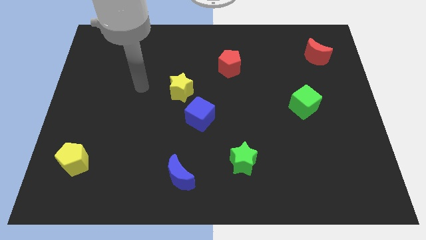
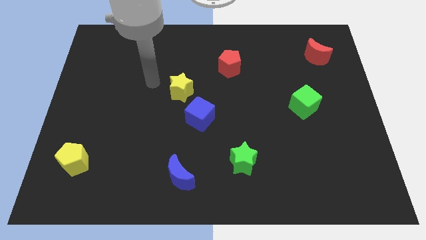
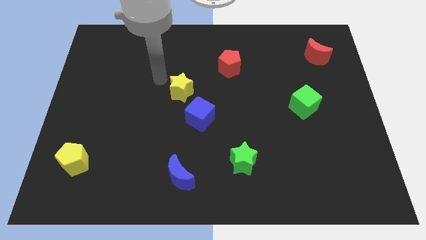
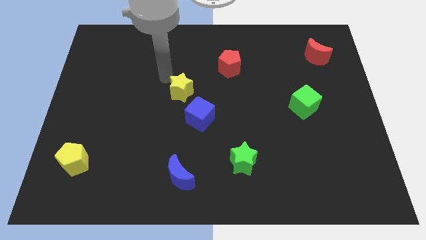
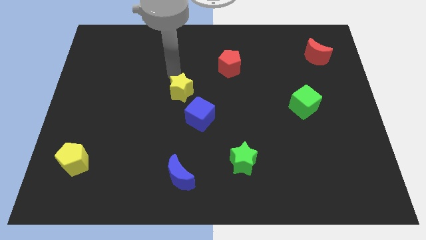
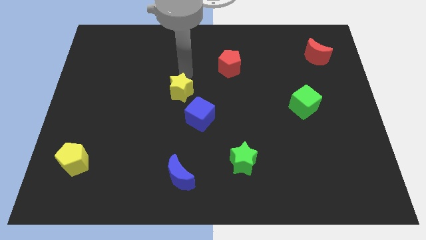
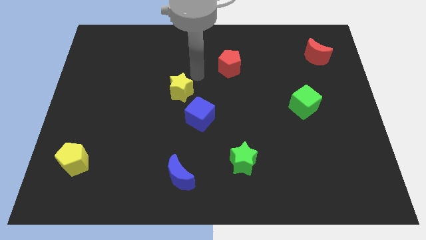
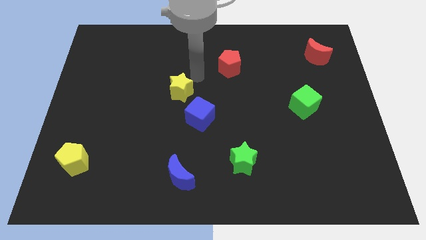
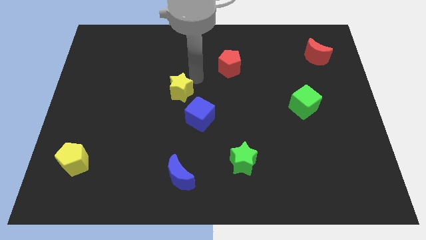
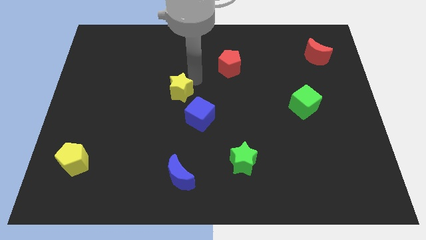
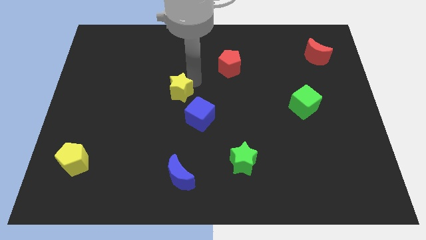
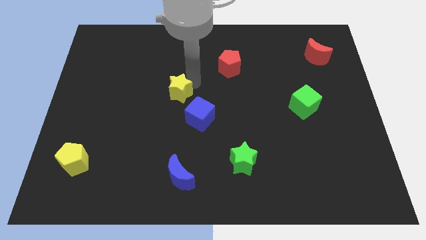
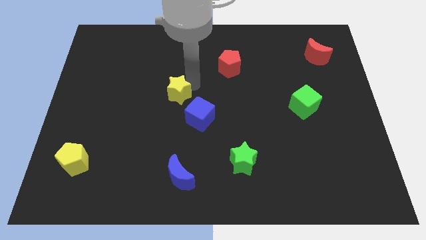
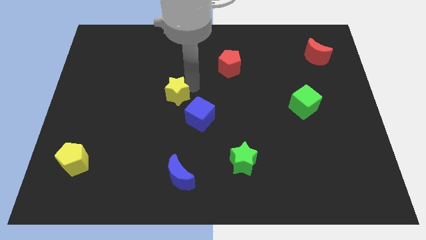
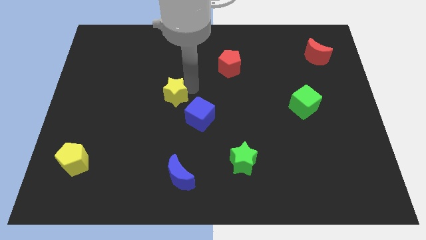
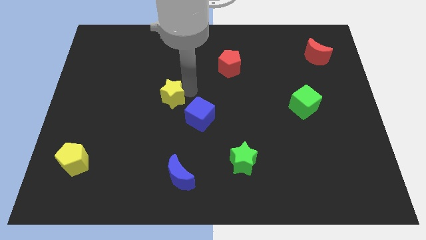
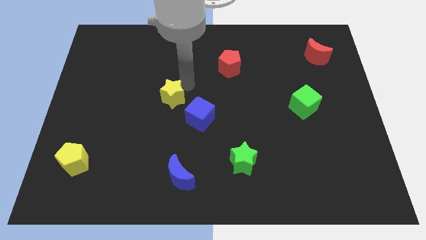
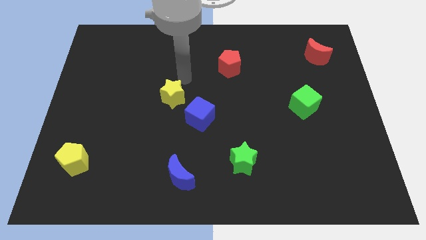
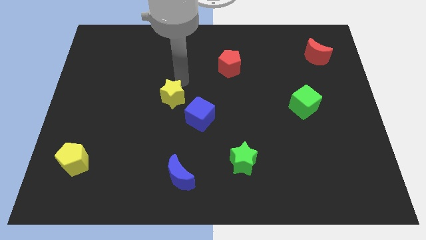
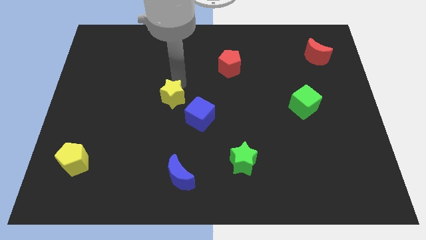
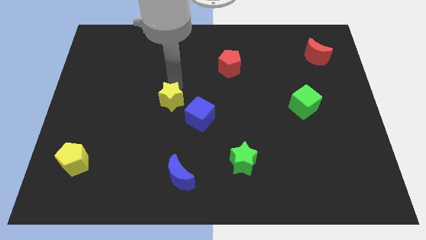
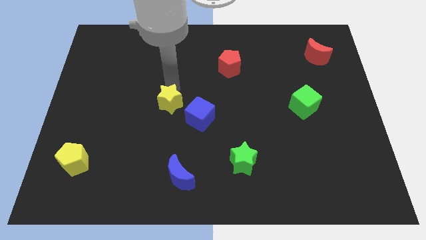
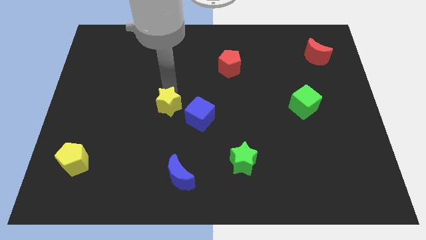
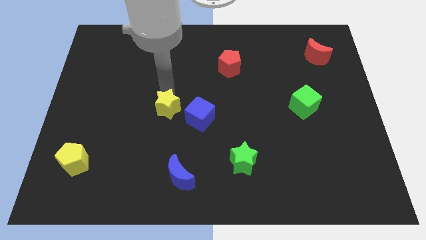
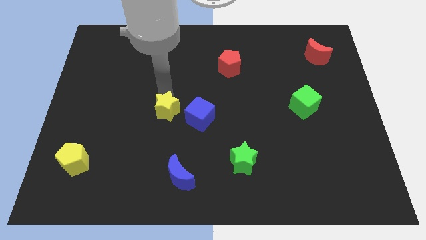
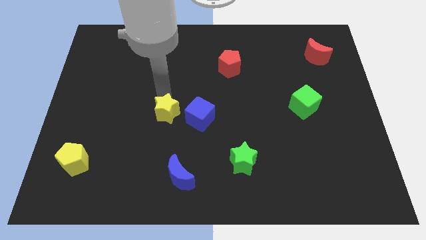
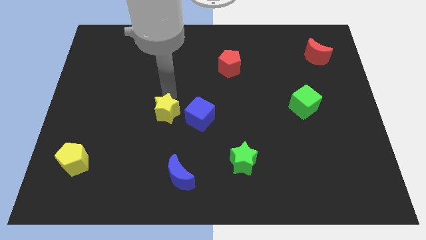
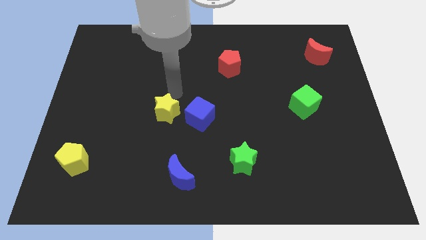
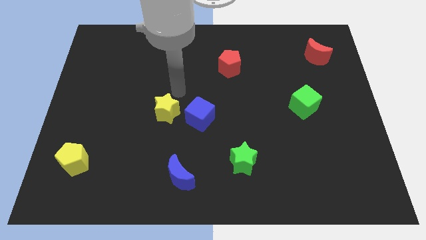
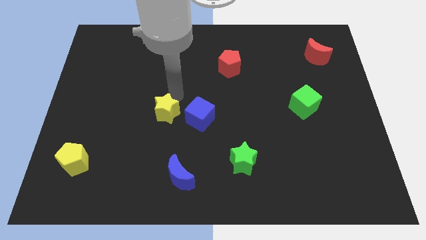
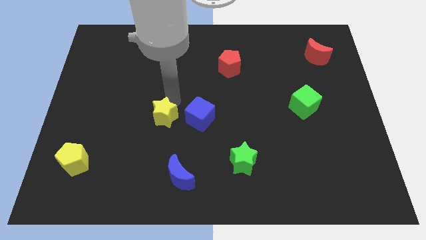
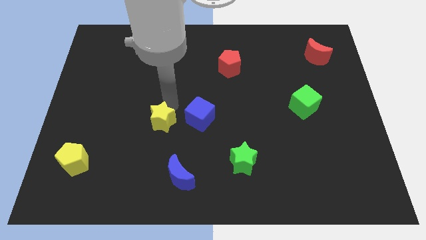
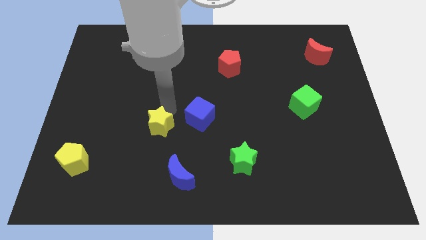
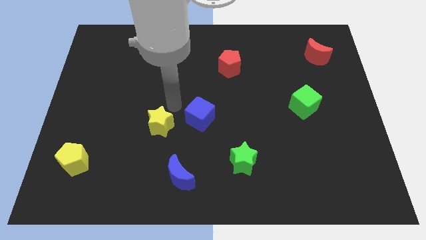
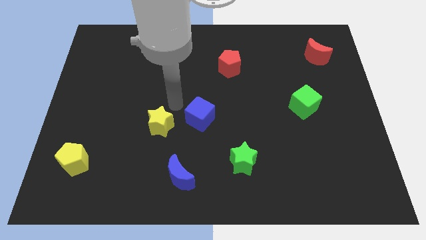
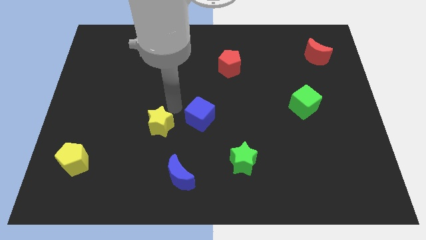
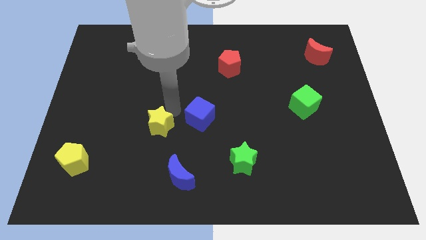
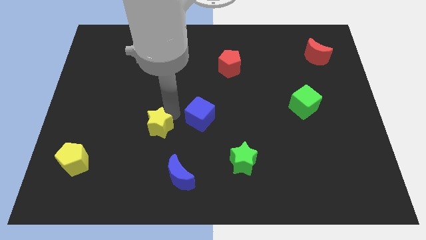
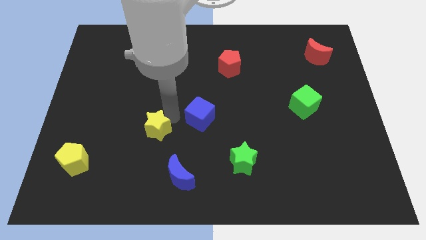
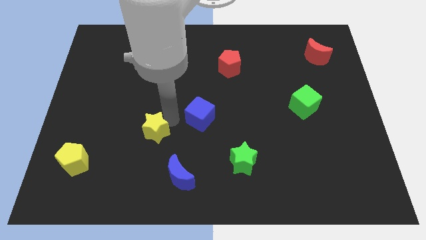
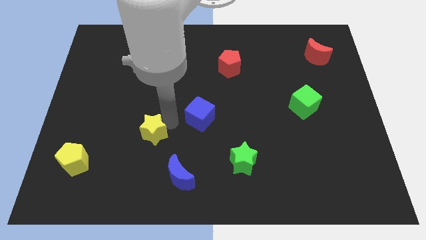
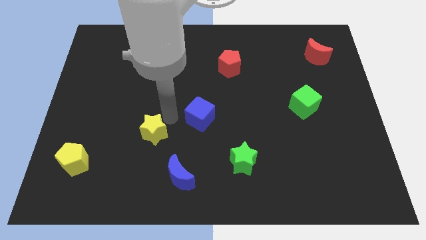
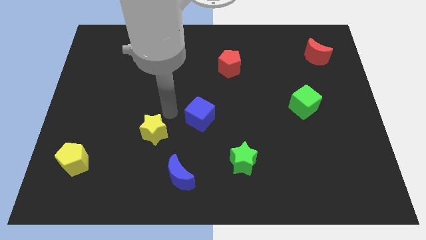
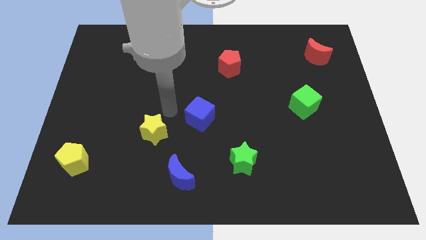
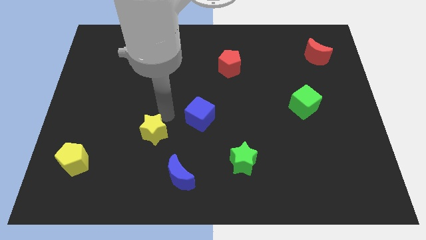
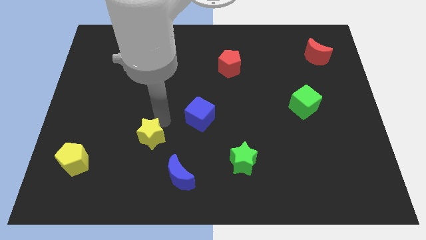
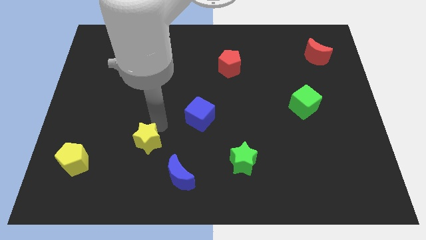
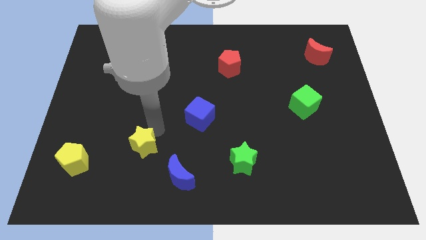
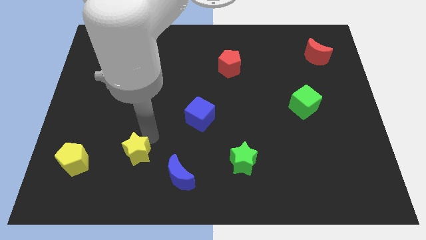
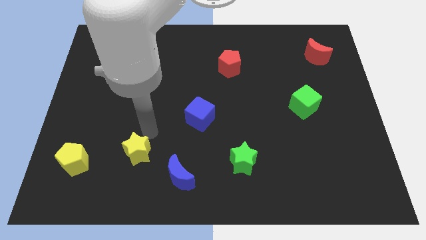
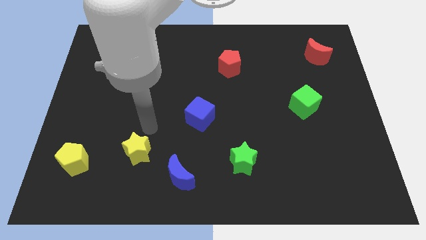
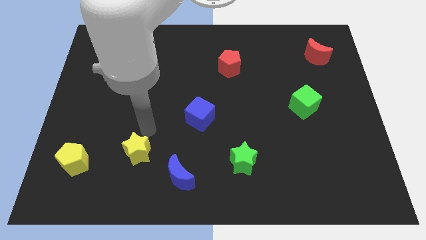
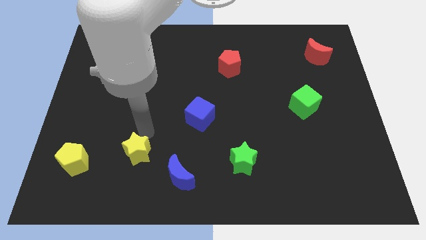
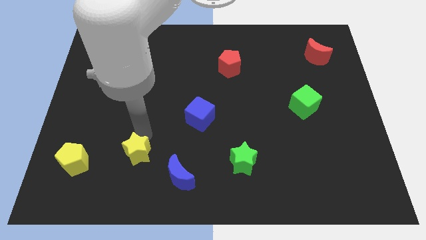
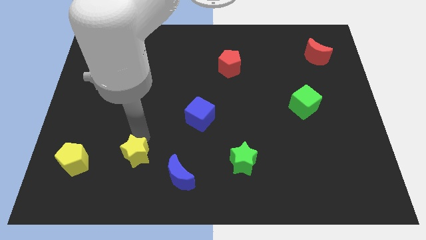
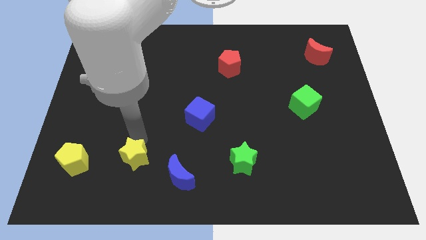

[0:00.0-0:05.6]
move the yellow star just left of the blue moon

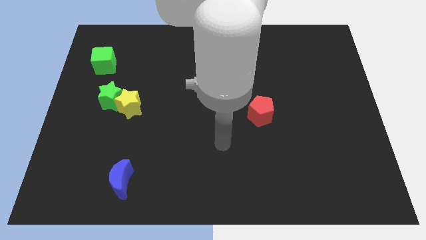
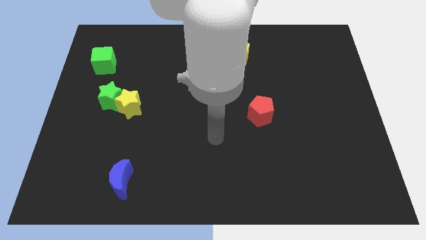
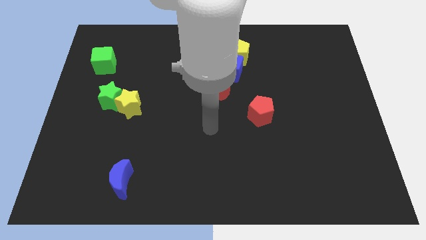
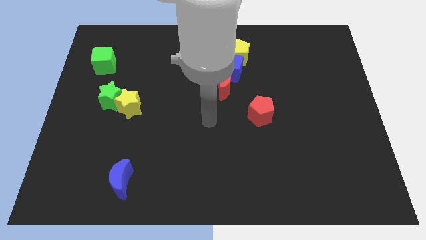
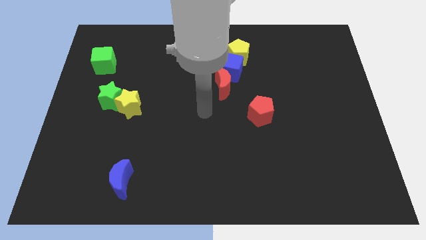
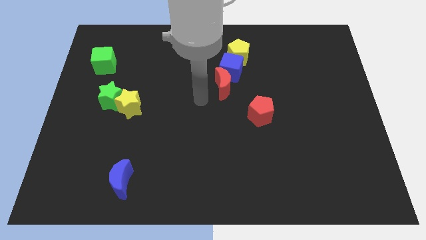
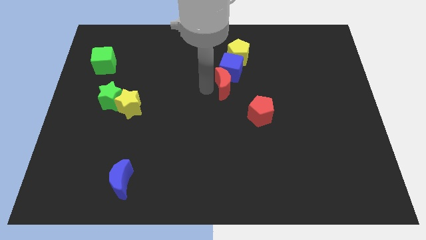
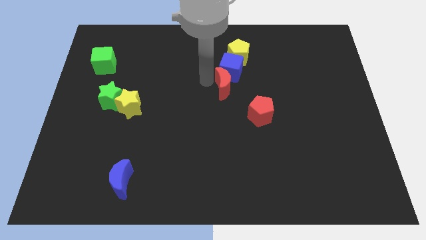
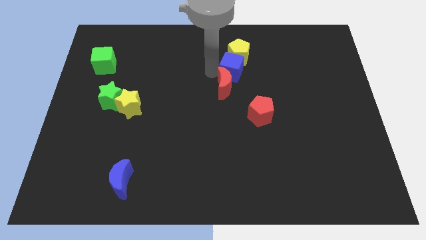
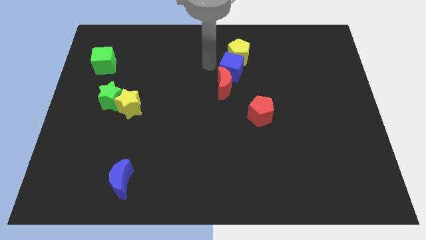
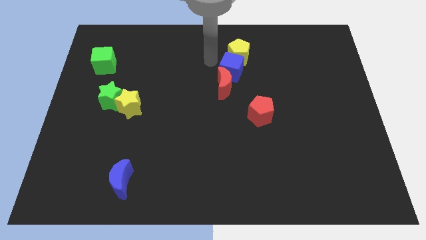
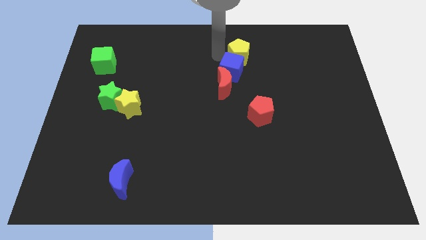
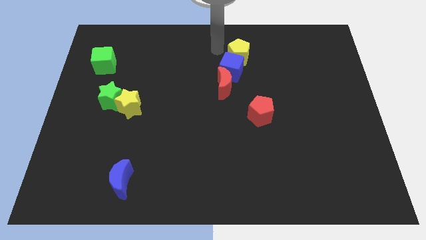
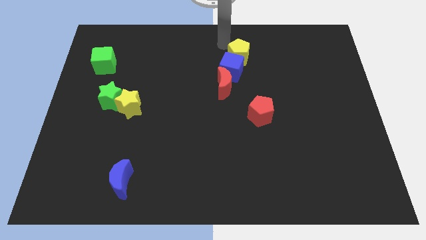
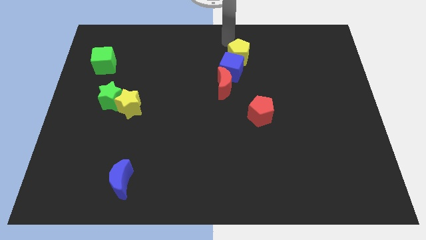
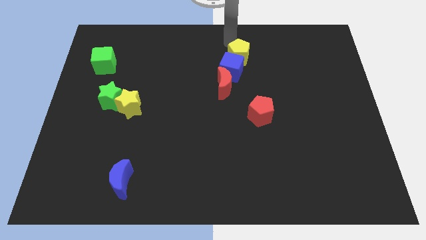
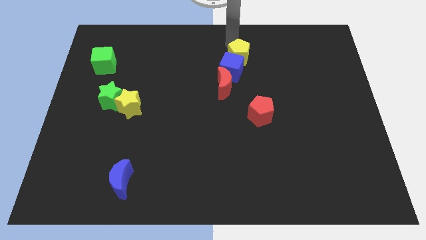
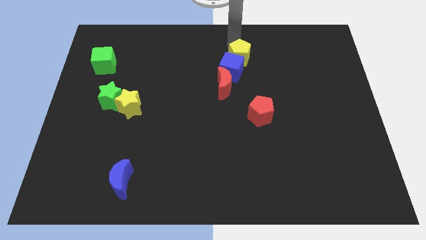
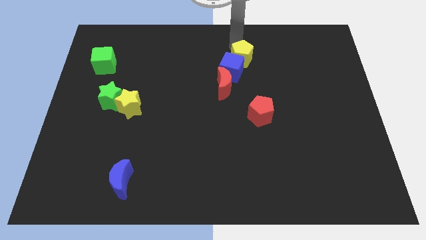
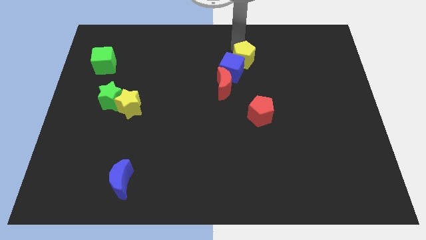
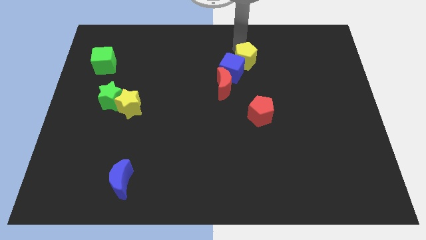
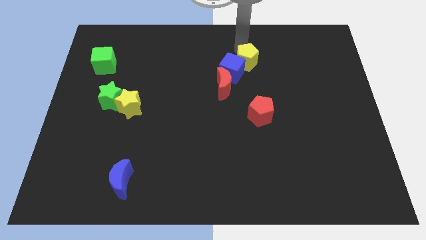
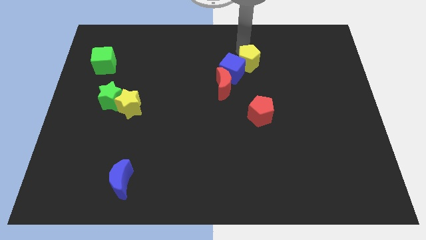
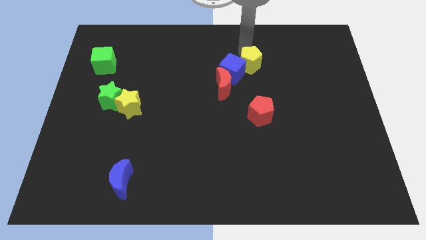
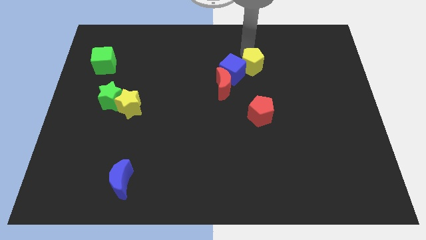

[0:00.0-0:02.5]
put the yellow pentagon to the top side of the red pentagon
